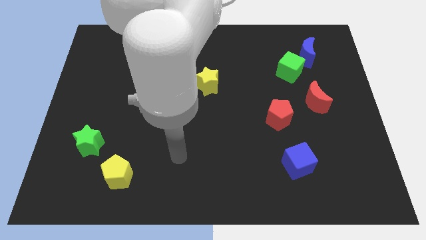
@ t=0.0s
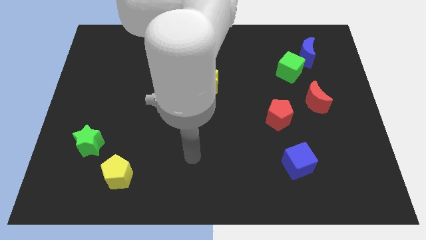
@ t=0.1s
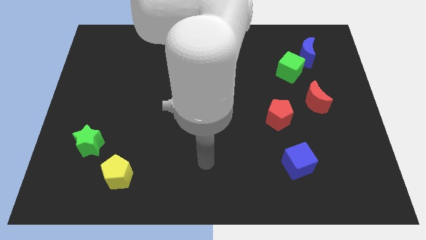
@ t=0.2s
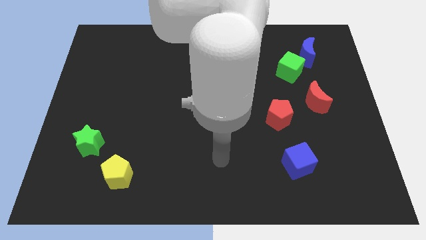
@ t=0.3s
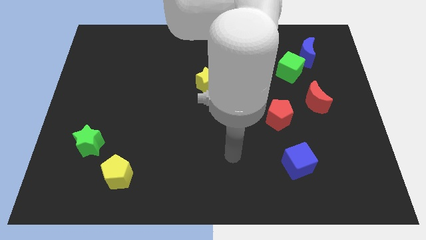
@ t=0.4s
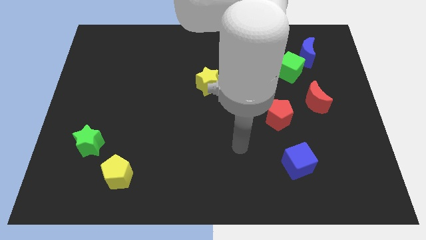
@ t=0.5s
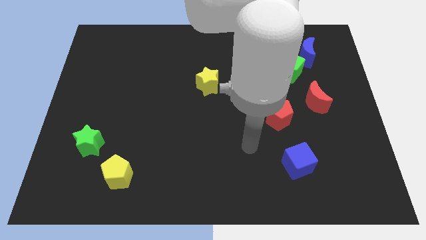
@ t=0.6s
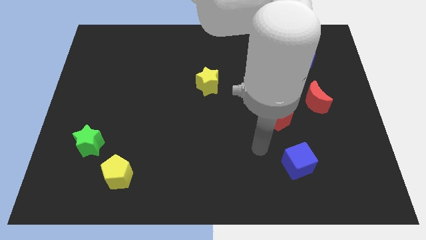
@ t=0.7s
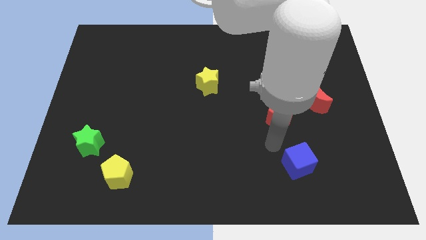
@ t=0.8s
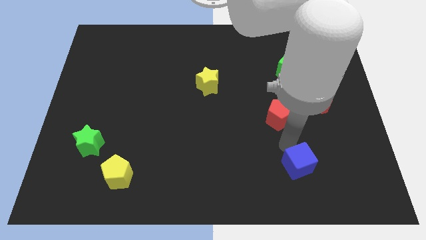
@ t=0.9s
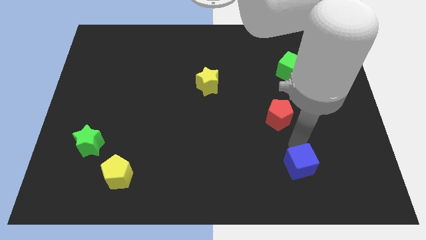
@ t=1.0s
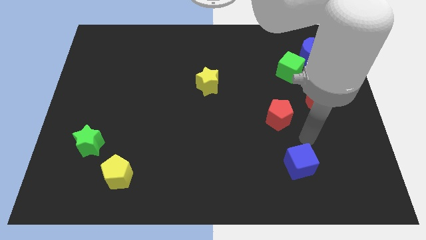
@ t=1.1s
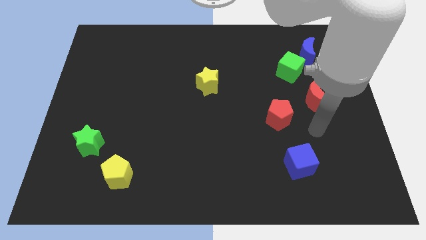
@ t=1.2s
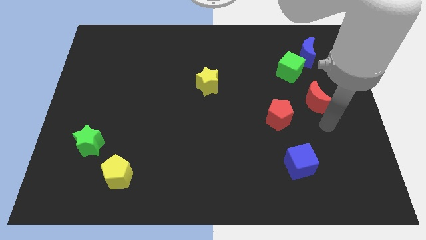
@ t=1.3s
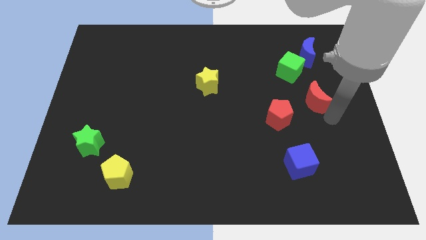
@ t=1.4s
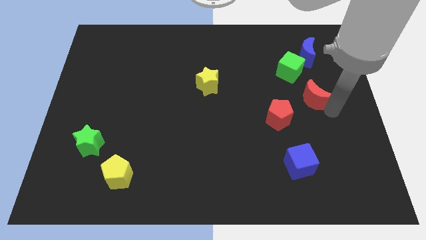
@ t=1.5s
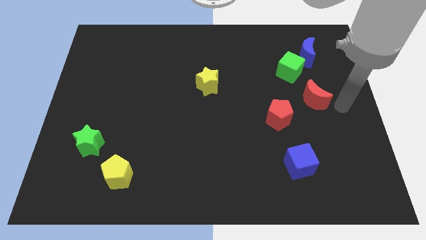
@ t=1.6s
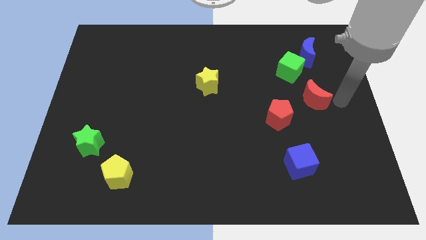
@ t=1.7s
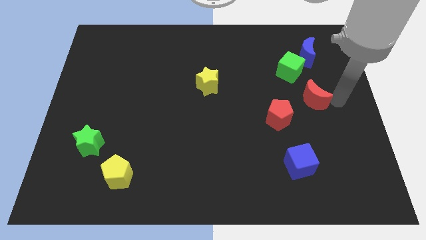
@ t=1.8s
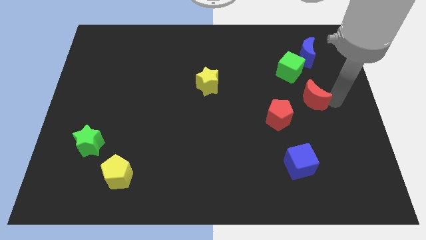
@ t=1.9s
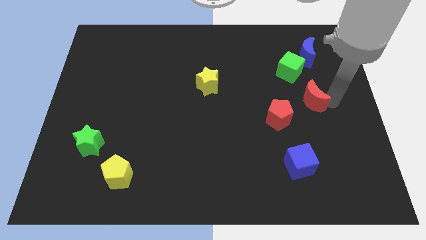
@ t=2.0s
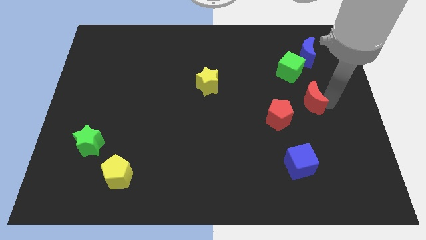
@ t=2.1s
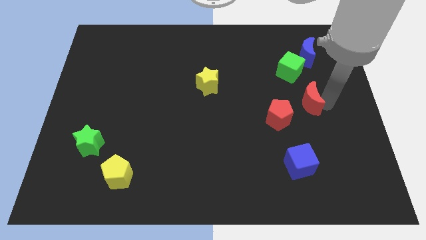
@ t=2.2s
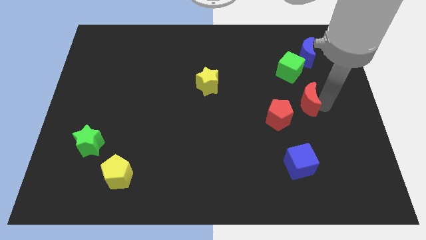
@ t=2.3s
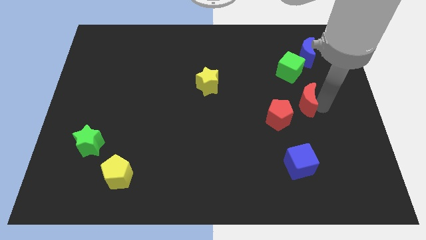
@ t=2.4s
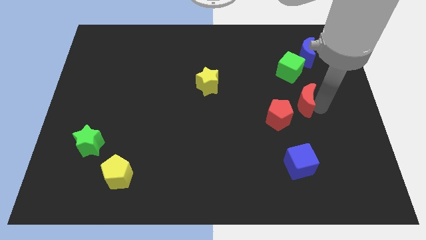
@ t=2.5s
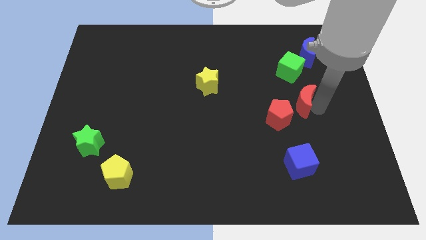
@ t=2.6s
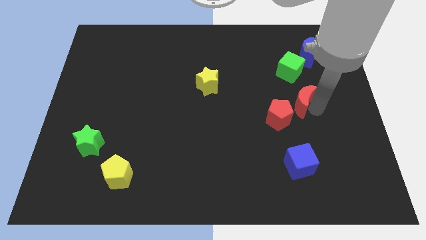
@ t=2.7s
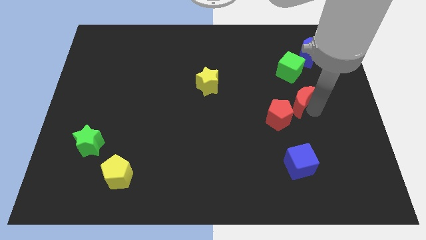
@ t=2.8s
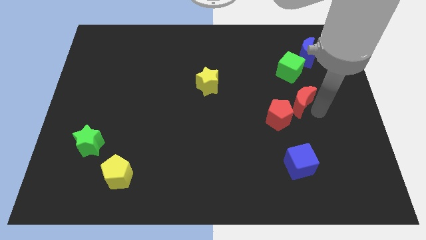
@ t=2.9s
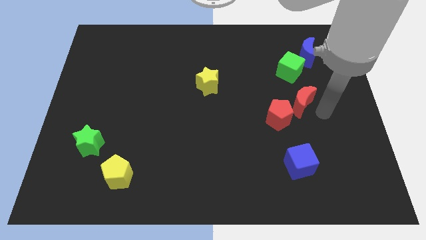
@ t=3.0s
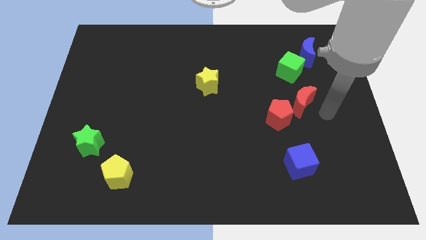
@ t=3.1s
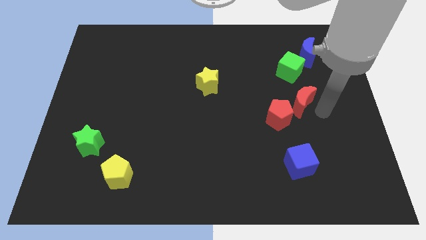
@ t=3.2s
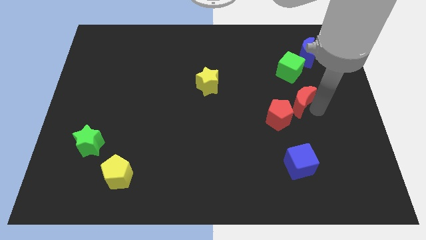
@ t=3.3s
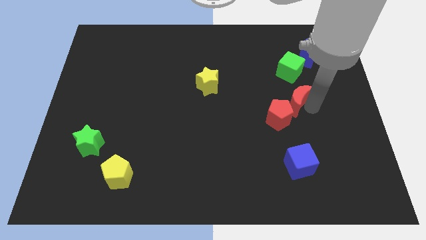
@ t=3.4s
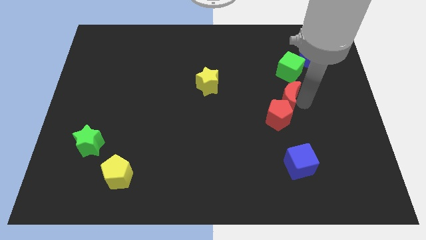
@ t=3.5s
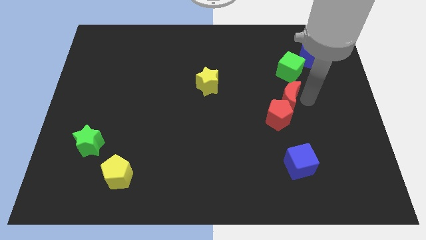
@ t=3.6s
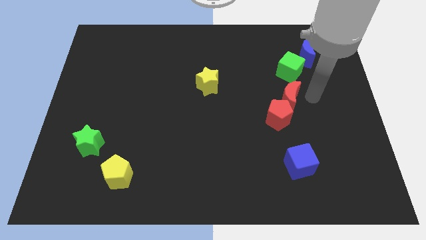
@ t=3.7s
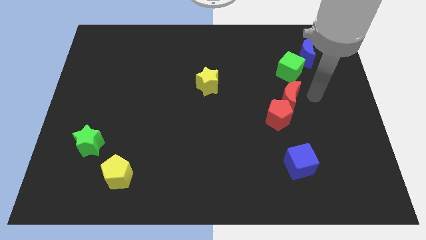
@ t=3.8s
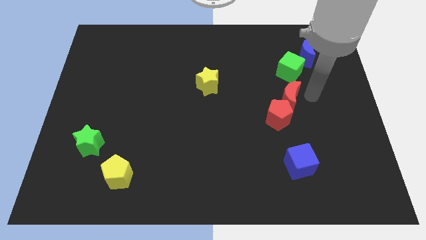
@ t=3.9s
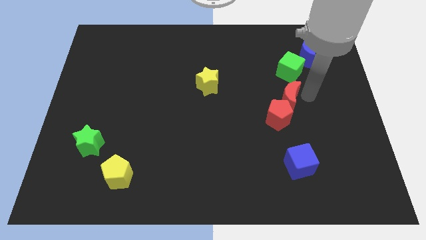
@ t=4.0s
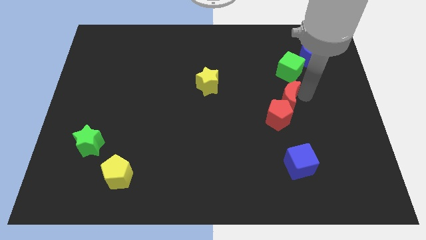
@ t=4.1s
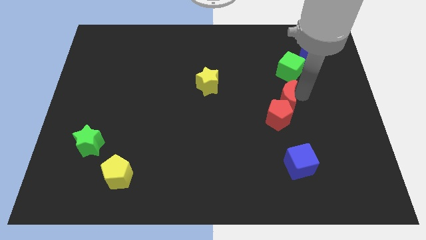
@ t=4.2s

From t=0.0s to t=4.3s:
slightly slide the red moon to the left

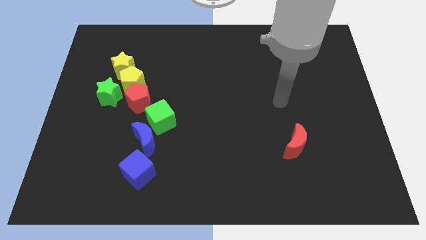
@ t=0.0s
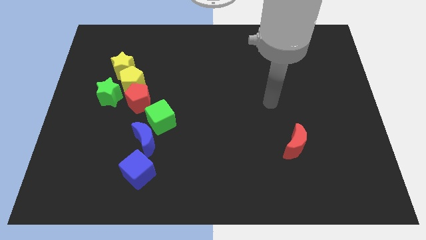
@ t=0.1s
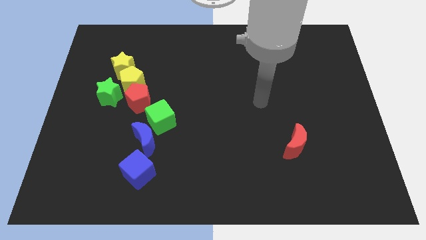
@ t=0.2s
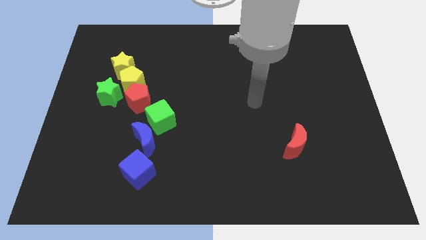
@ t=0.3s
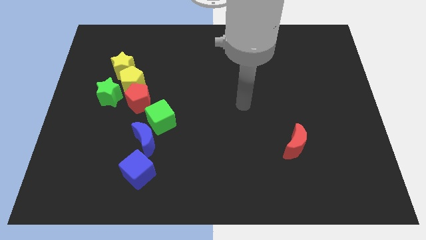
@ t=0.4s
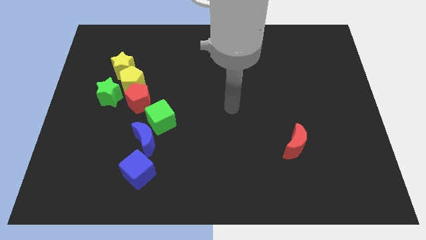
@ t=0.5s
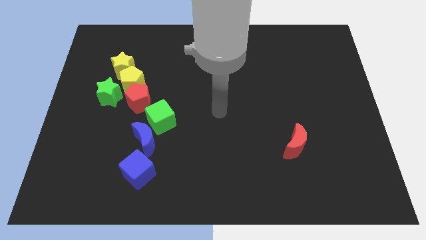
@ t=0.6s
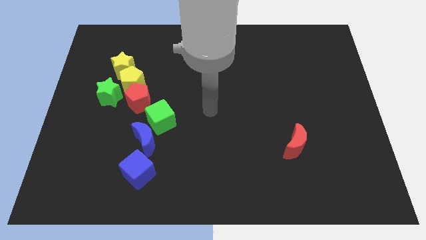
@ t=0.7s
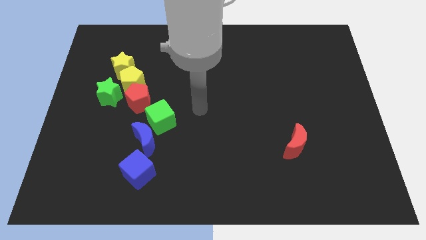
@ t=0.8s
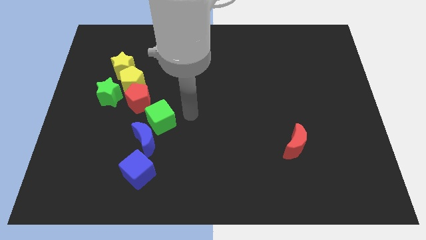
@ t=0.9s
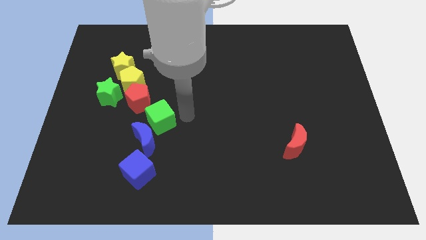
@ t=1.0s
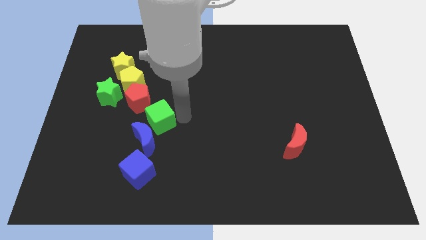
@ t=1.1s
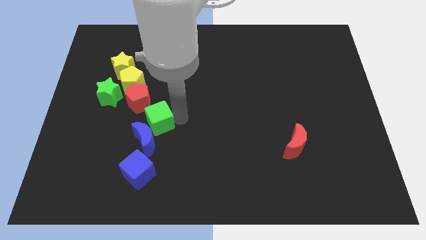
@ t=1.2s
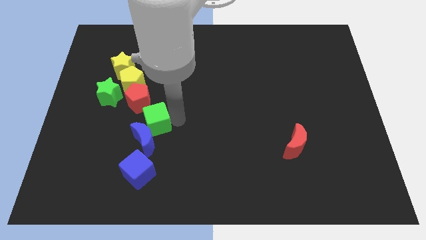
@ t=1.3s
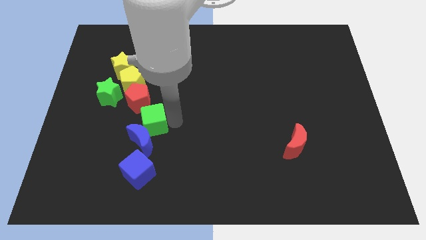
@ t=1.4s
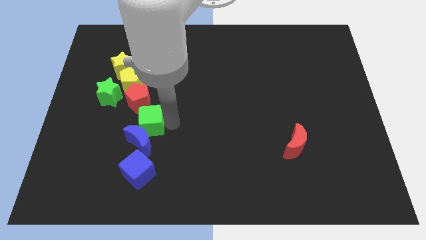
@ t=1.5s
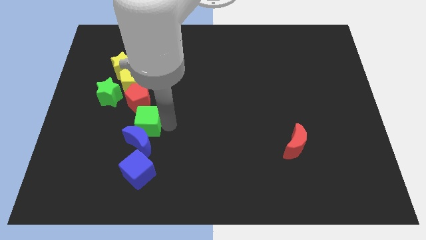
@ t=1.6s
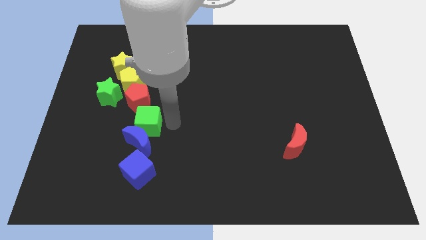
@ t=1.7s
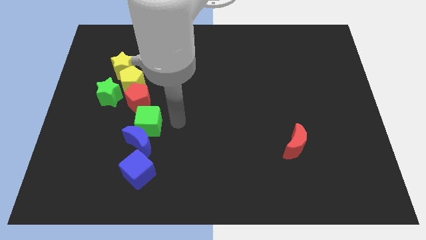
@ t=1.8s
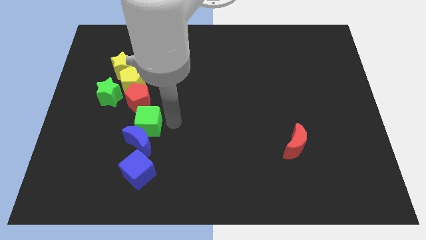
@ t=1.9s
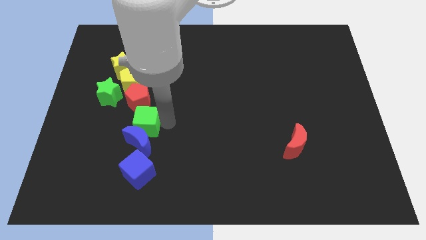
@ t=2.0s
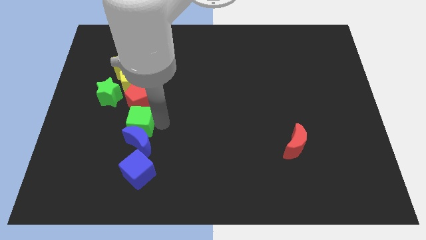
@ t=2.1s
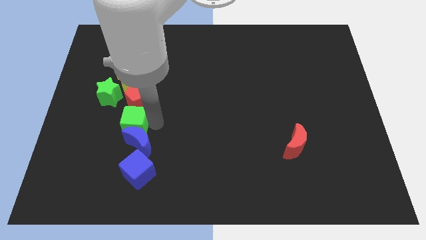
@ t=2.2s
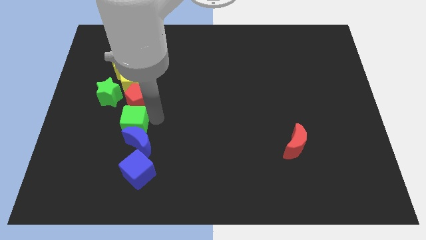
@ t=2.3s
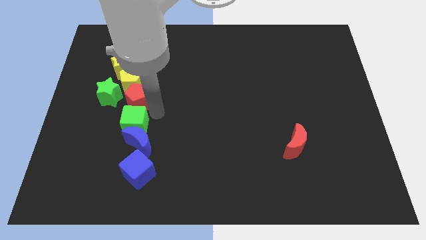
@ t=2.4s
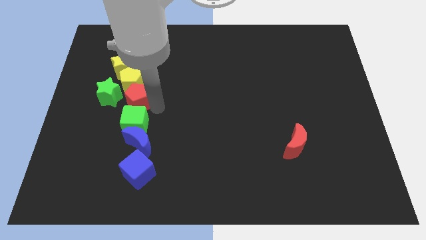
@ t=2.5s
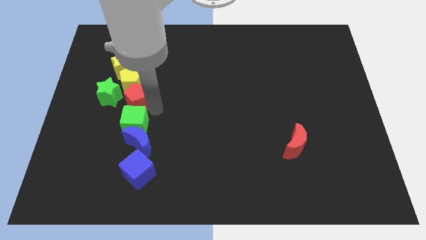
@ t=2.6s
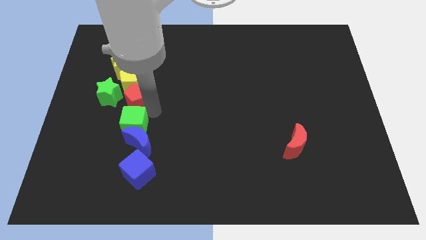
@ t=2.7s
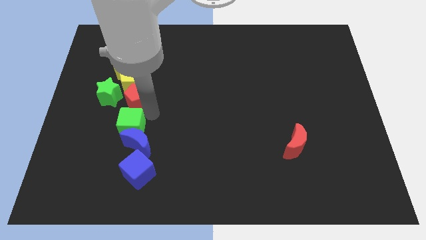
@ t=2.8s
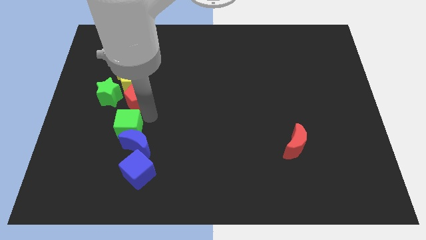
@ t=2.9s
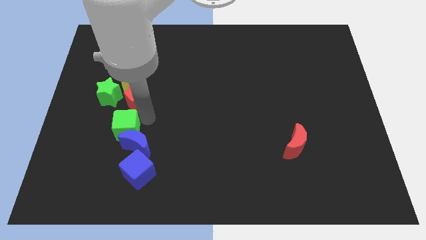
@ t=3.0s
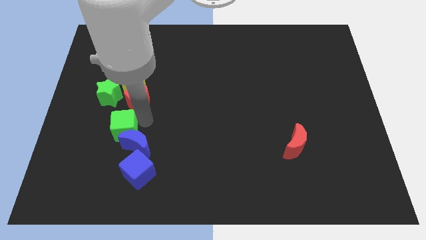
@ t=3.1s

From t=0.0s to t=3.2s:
slide the green cube somewhat downwards and to the left diagonally

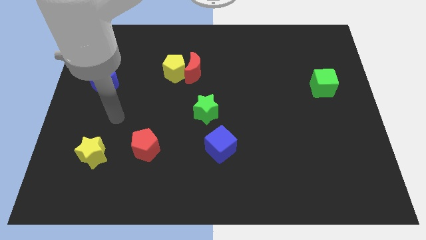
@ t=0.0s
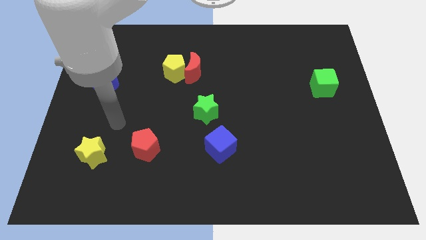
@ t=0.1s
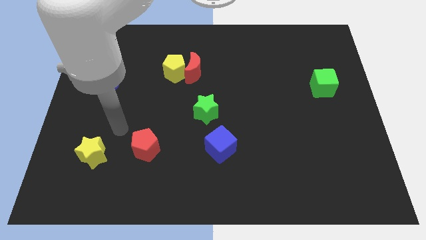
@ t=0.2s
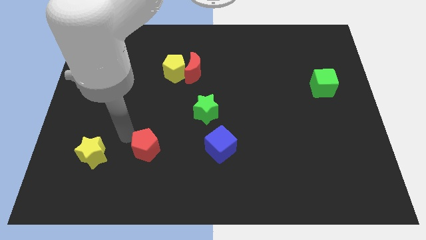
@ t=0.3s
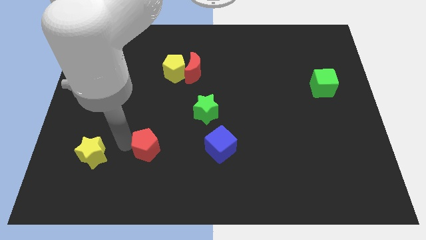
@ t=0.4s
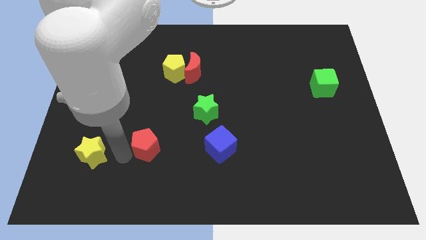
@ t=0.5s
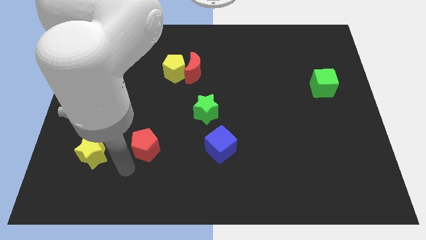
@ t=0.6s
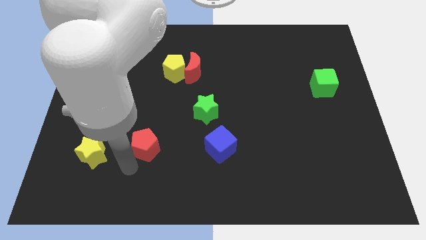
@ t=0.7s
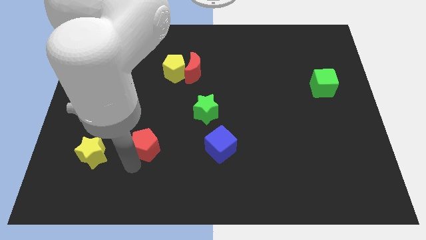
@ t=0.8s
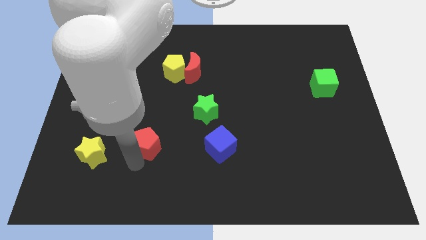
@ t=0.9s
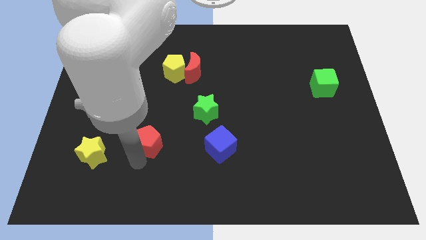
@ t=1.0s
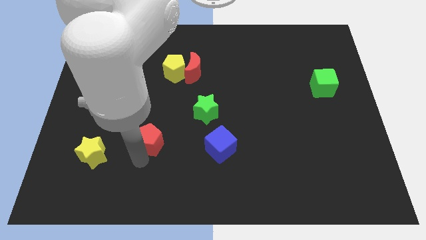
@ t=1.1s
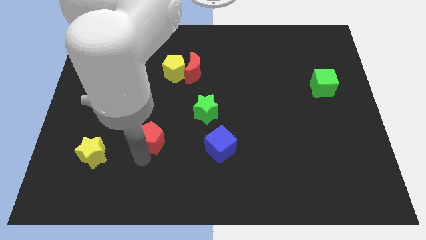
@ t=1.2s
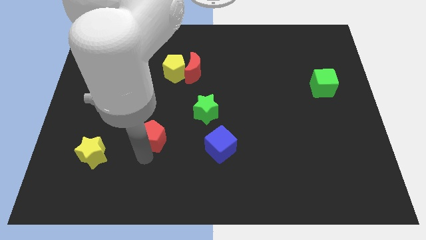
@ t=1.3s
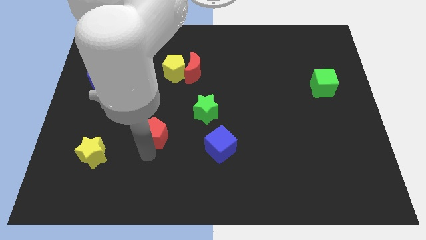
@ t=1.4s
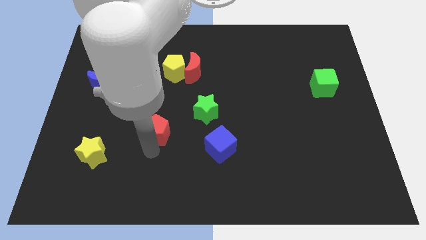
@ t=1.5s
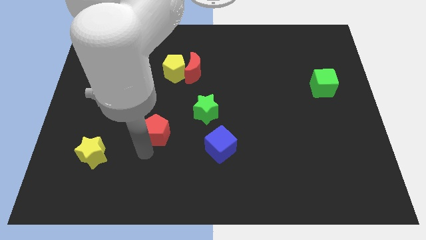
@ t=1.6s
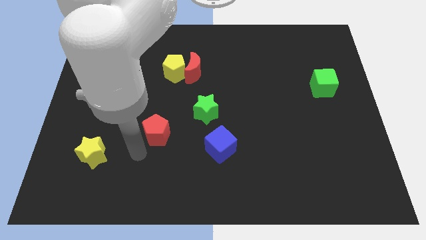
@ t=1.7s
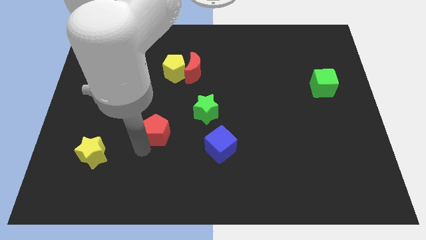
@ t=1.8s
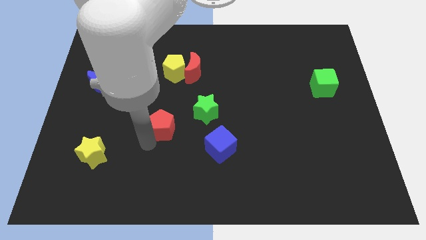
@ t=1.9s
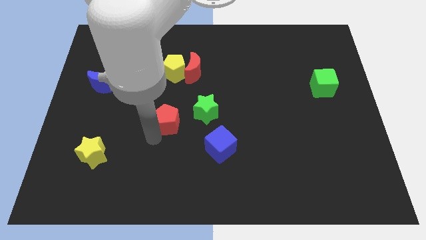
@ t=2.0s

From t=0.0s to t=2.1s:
slightly push the red pentagon upwards and right
